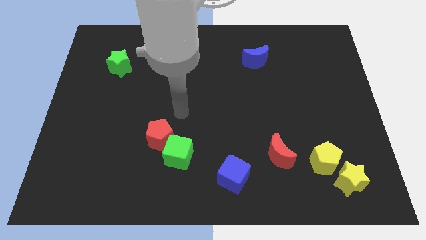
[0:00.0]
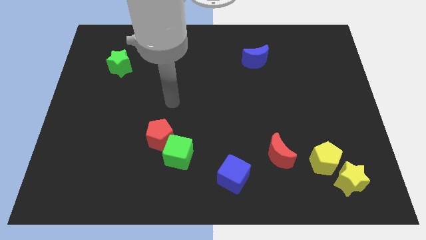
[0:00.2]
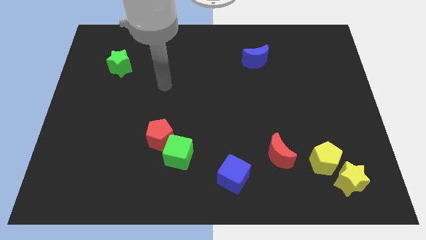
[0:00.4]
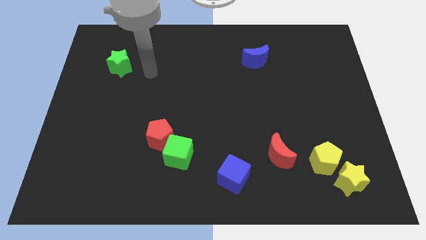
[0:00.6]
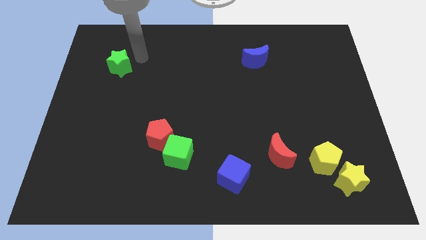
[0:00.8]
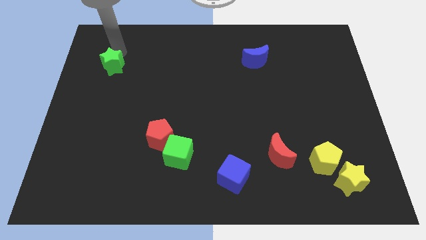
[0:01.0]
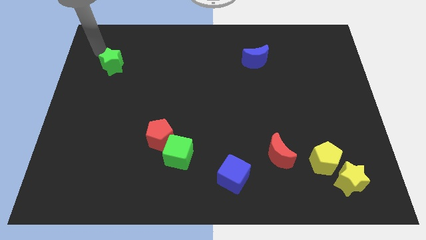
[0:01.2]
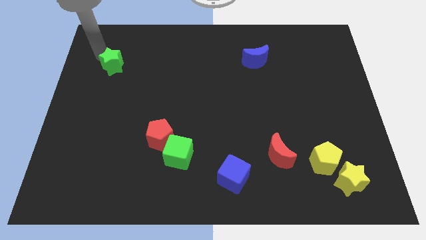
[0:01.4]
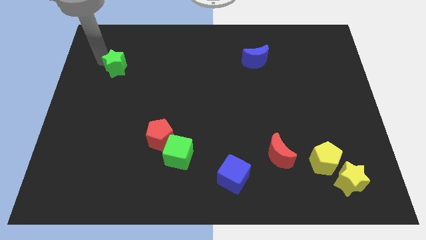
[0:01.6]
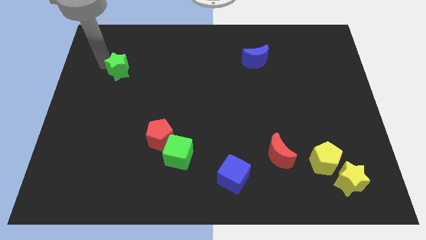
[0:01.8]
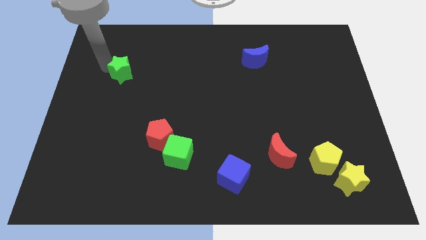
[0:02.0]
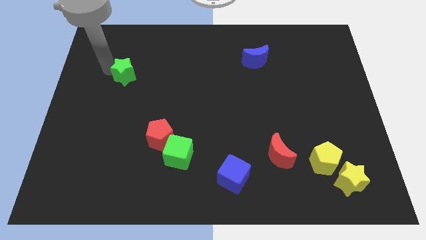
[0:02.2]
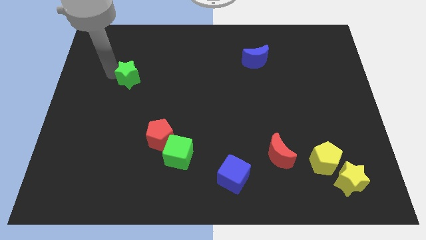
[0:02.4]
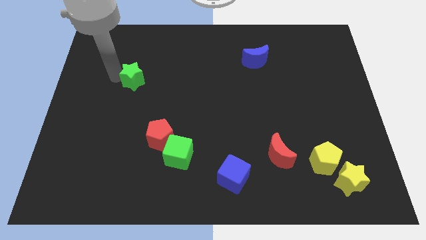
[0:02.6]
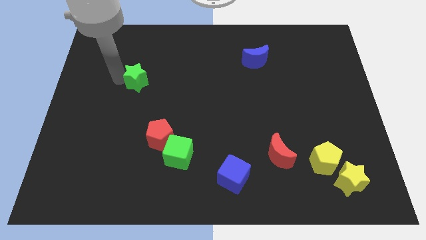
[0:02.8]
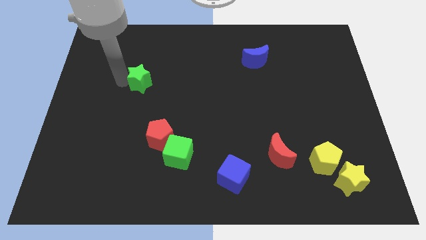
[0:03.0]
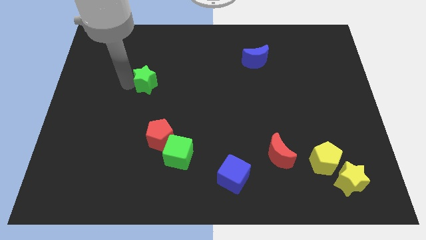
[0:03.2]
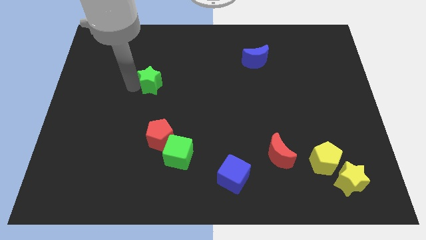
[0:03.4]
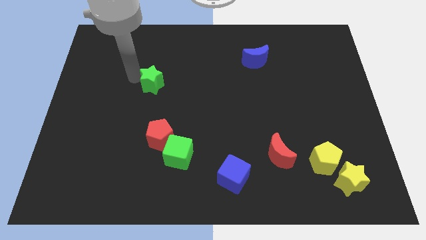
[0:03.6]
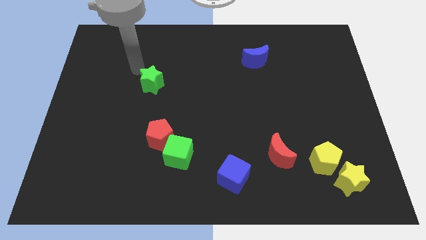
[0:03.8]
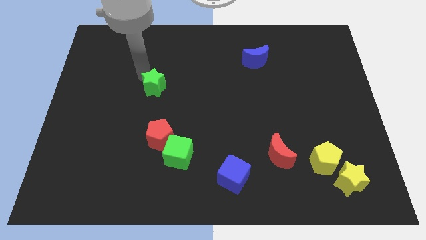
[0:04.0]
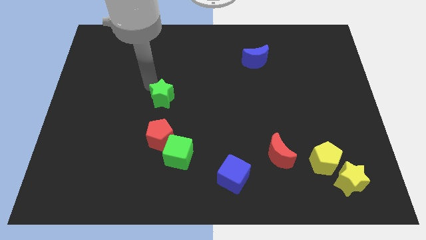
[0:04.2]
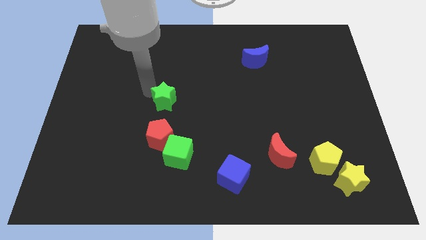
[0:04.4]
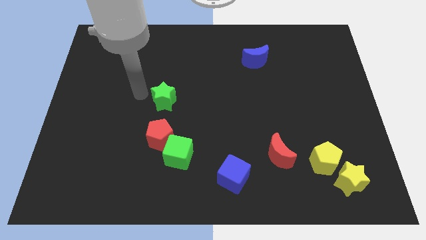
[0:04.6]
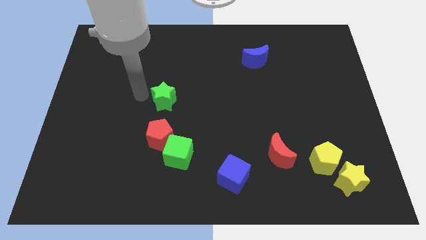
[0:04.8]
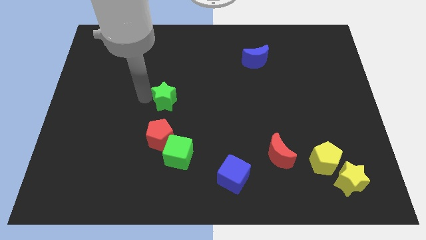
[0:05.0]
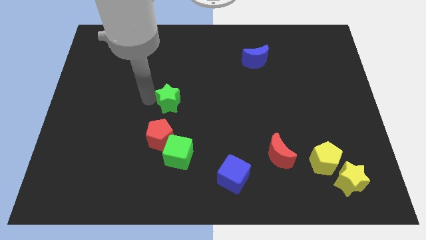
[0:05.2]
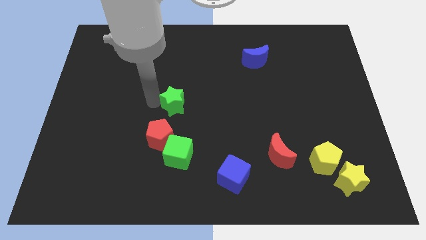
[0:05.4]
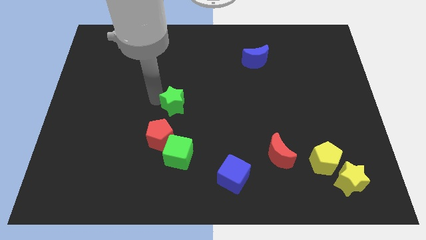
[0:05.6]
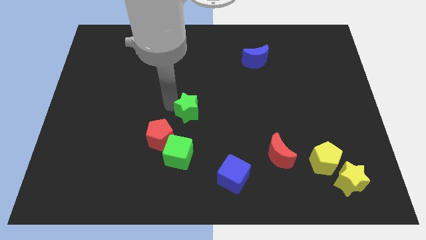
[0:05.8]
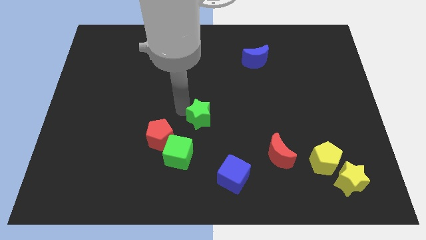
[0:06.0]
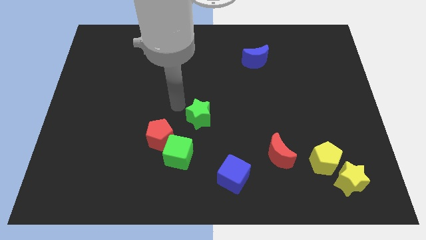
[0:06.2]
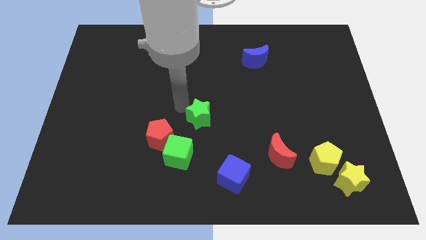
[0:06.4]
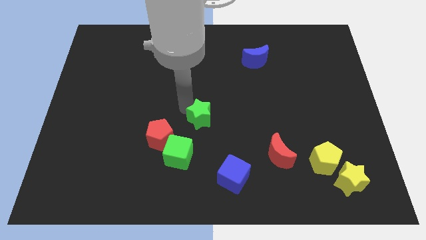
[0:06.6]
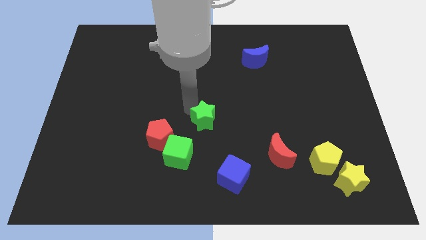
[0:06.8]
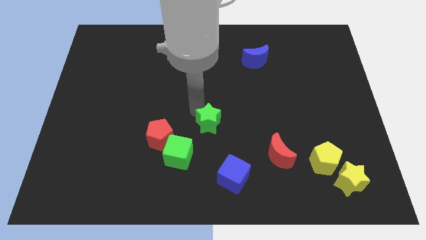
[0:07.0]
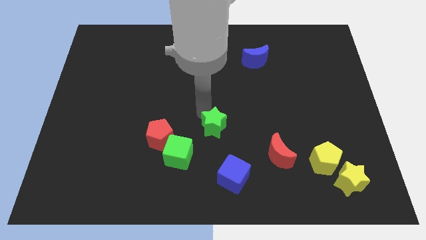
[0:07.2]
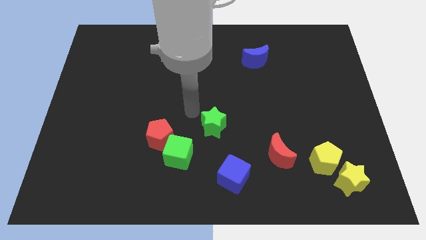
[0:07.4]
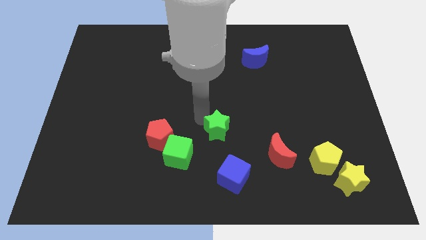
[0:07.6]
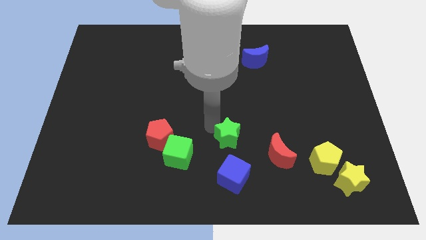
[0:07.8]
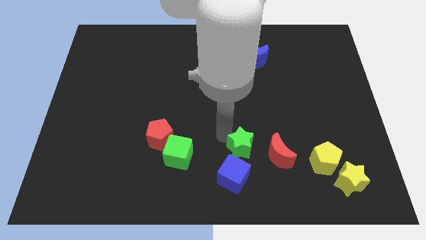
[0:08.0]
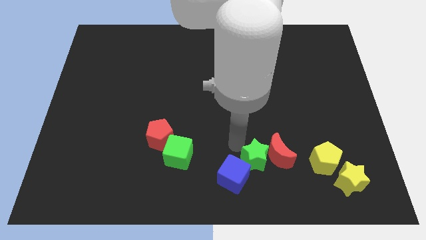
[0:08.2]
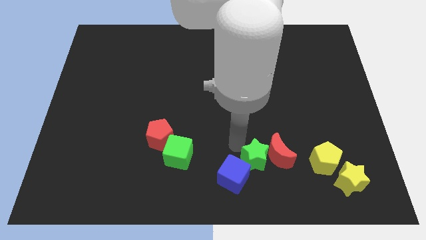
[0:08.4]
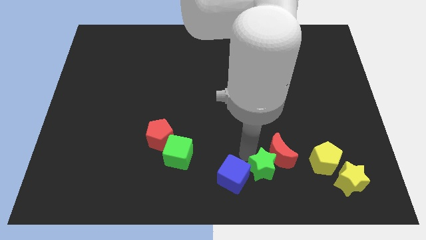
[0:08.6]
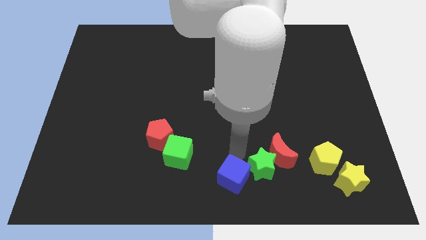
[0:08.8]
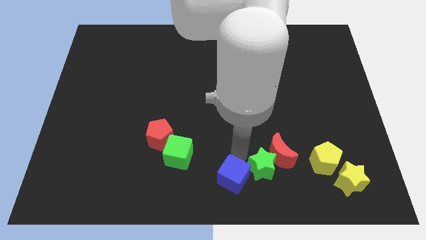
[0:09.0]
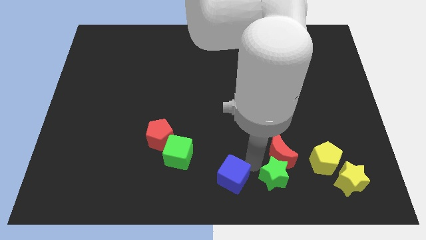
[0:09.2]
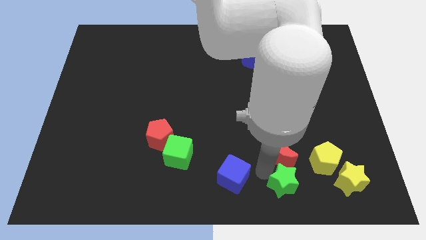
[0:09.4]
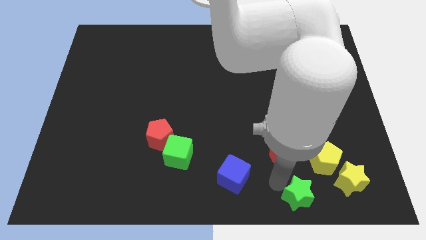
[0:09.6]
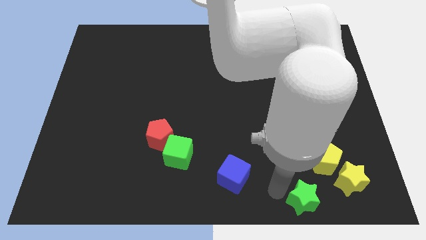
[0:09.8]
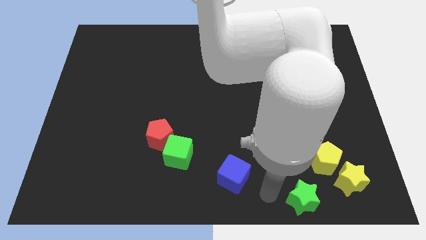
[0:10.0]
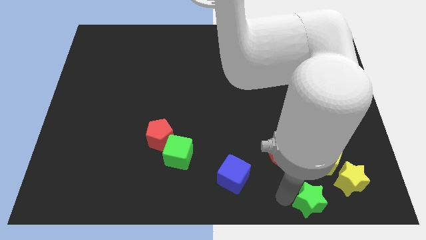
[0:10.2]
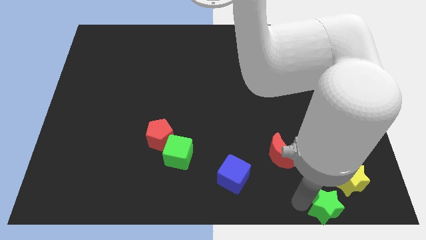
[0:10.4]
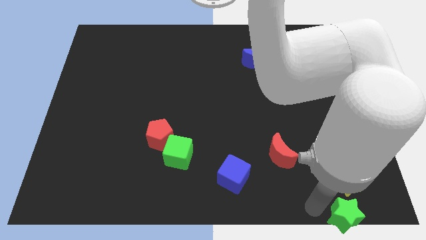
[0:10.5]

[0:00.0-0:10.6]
move the green star to the bottom right
